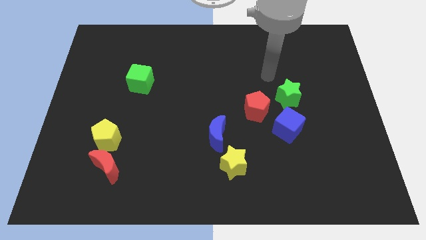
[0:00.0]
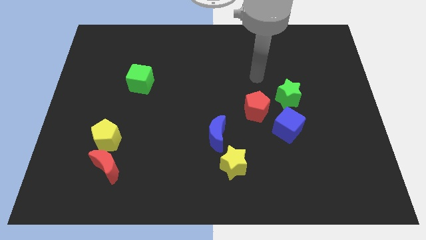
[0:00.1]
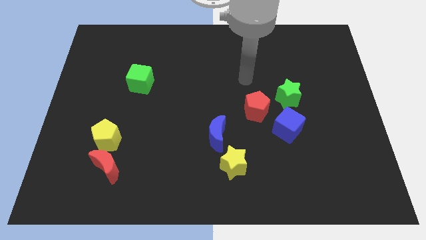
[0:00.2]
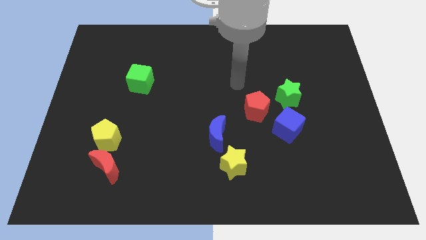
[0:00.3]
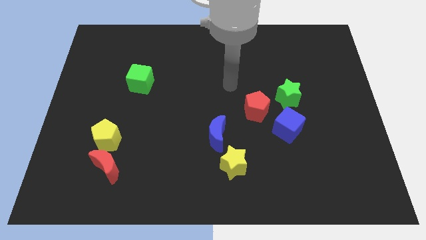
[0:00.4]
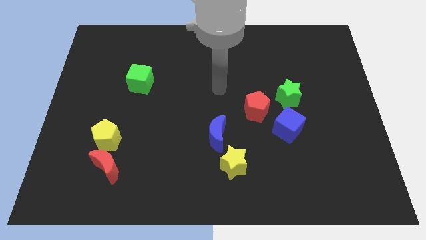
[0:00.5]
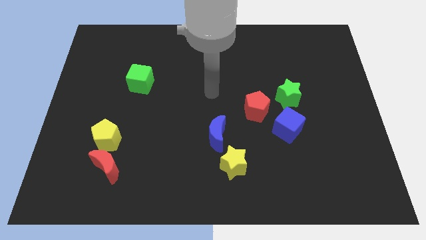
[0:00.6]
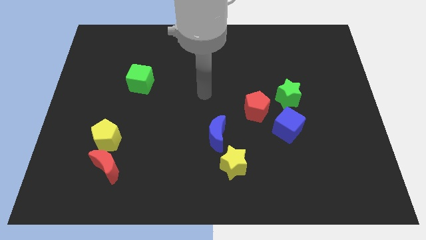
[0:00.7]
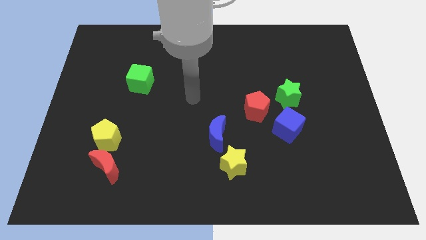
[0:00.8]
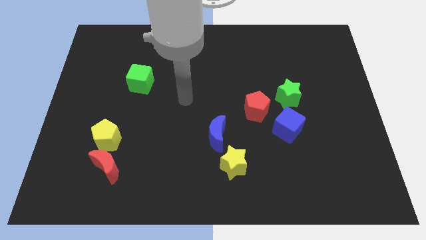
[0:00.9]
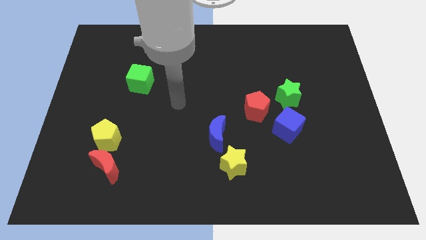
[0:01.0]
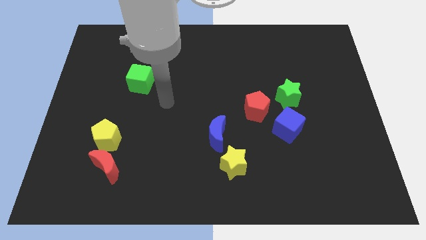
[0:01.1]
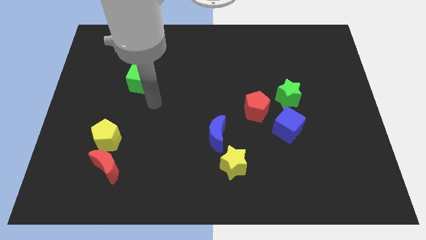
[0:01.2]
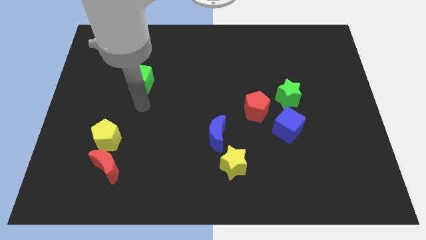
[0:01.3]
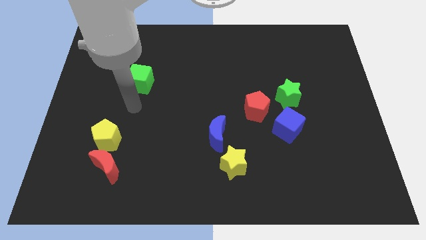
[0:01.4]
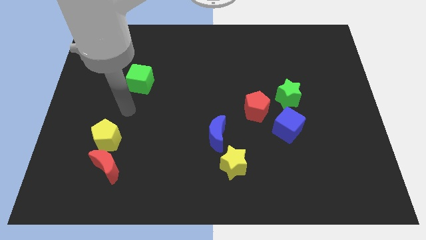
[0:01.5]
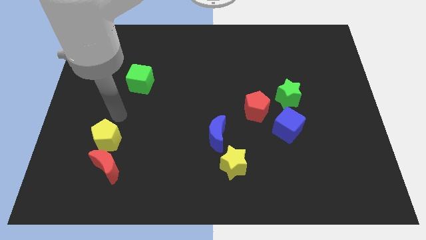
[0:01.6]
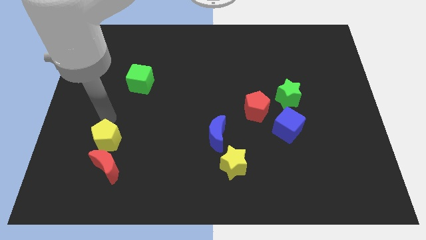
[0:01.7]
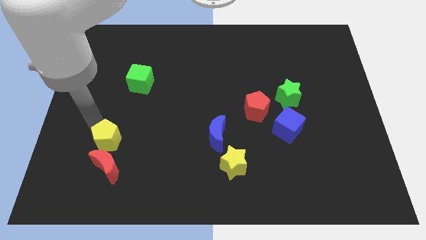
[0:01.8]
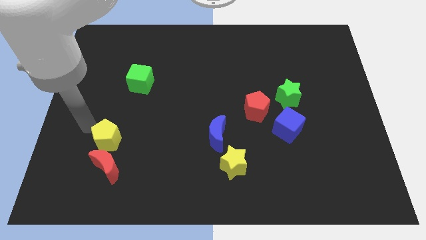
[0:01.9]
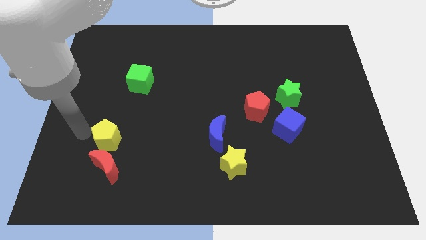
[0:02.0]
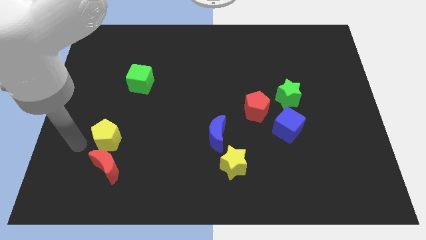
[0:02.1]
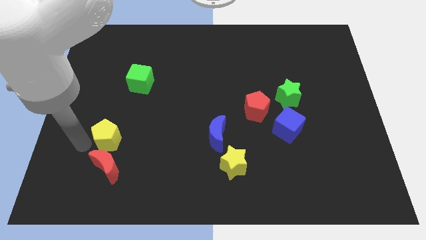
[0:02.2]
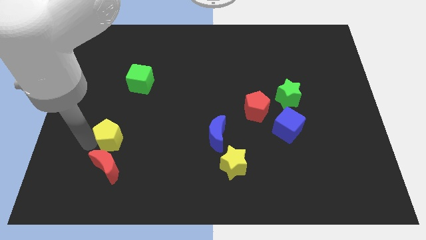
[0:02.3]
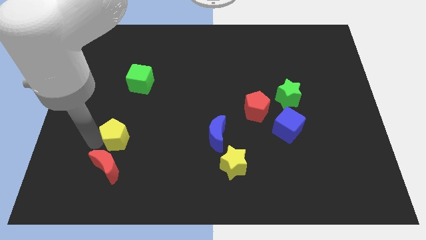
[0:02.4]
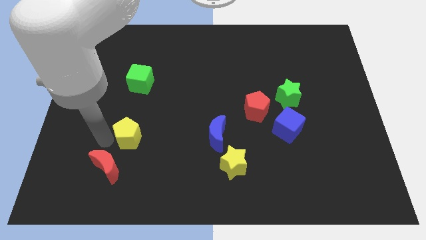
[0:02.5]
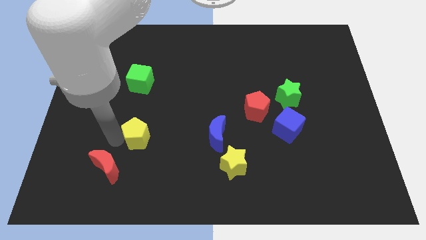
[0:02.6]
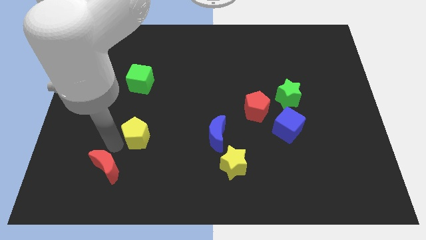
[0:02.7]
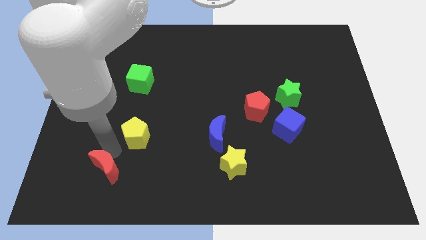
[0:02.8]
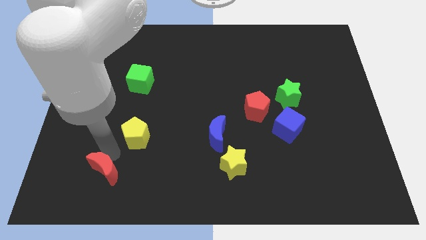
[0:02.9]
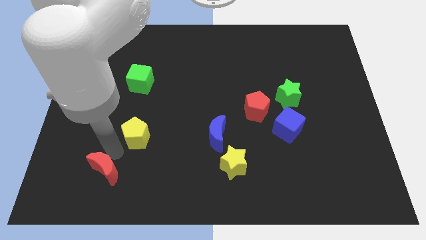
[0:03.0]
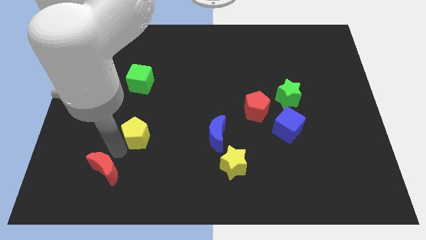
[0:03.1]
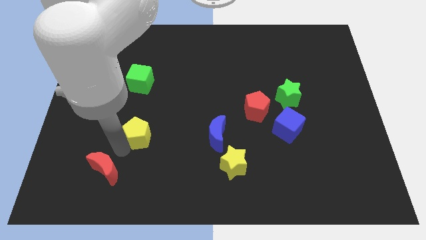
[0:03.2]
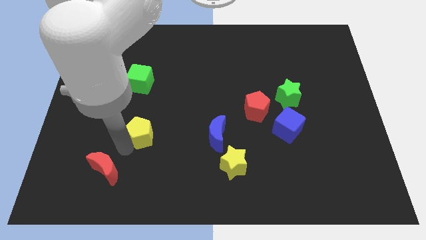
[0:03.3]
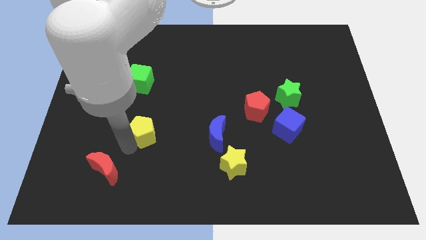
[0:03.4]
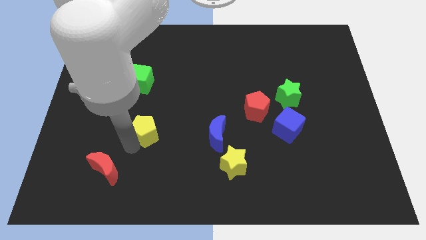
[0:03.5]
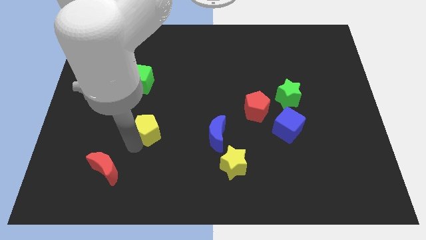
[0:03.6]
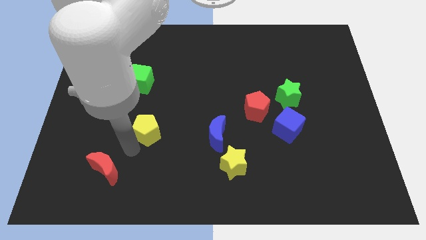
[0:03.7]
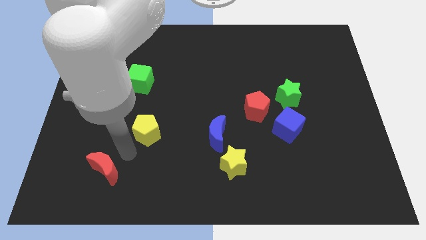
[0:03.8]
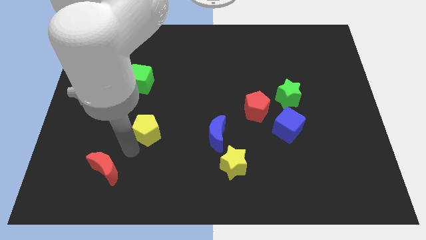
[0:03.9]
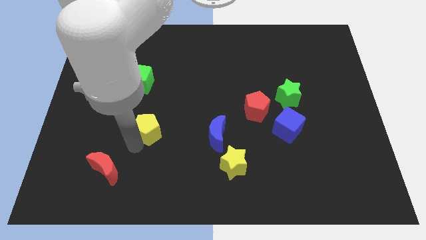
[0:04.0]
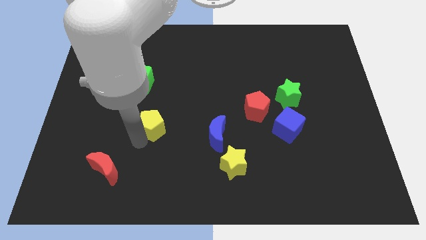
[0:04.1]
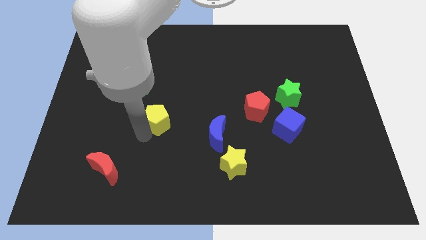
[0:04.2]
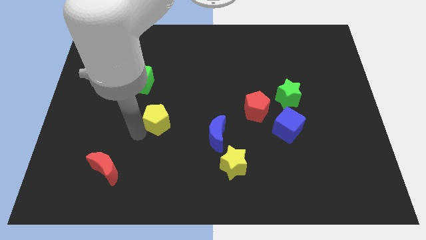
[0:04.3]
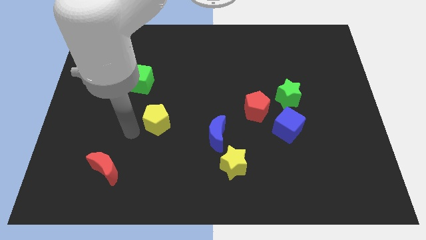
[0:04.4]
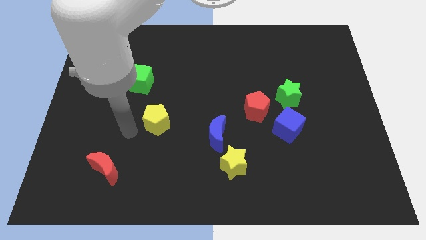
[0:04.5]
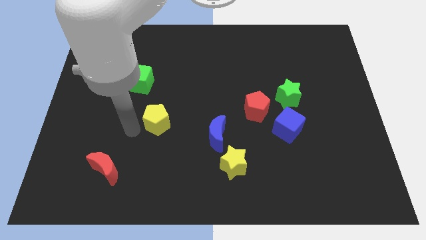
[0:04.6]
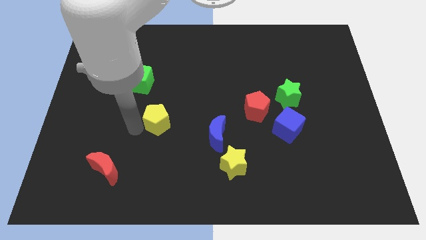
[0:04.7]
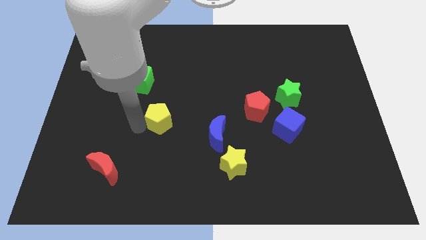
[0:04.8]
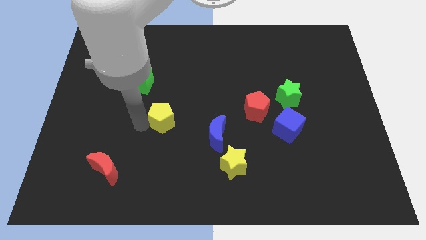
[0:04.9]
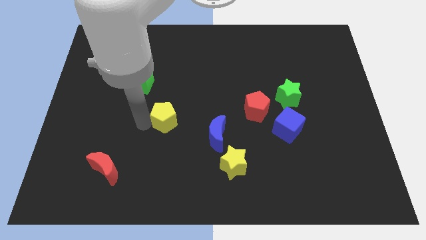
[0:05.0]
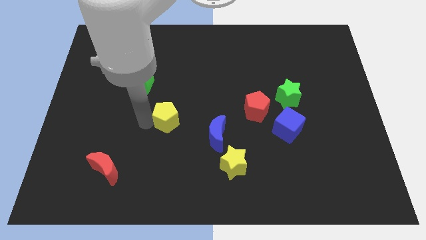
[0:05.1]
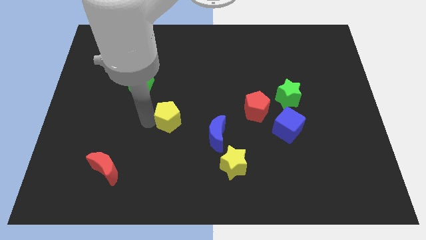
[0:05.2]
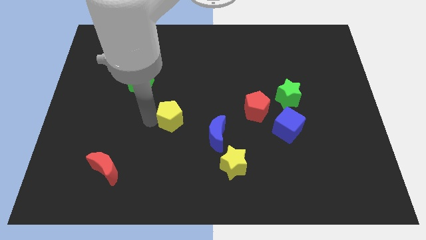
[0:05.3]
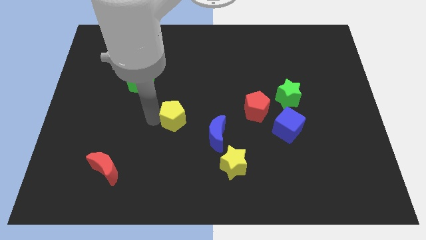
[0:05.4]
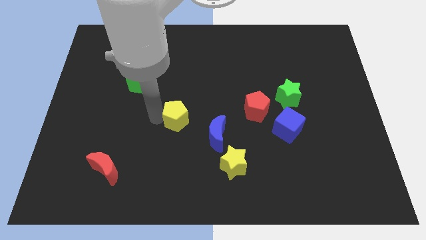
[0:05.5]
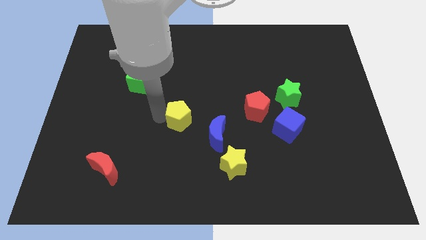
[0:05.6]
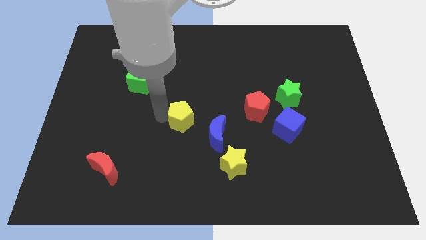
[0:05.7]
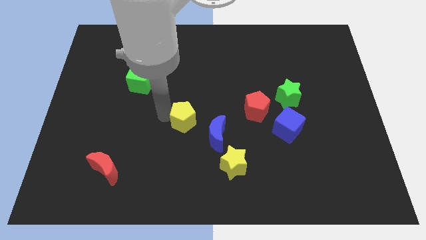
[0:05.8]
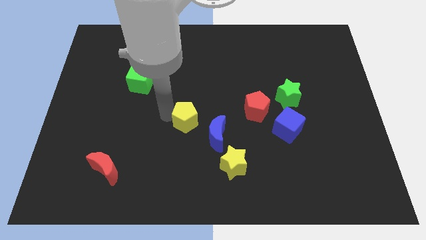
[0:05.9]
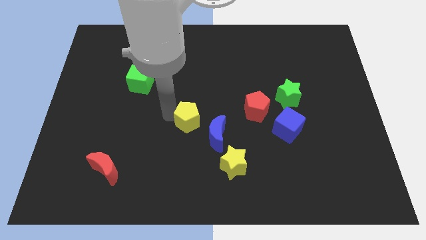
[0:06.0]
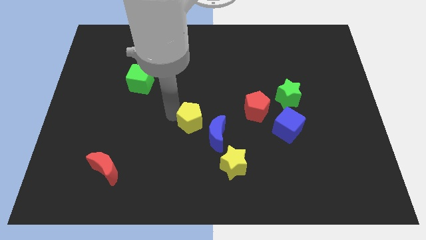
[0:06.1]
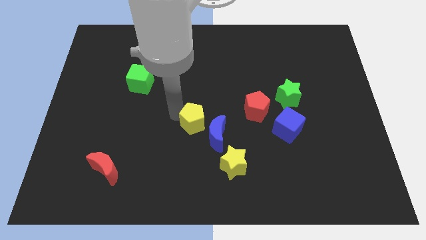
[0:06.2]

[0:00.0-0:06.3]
move the yellow pentagon just left of the red pentagon
